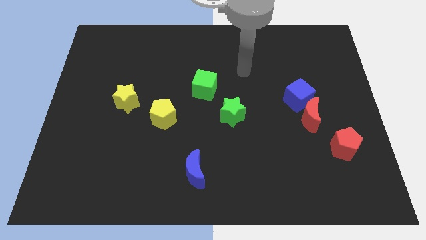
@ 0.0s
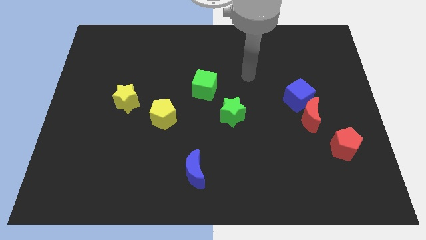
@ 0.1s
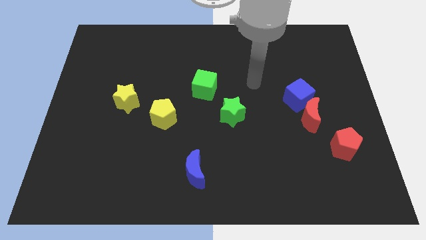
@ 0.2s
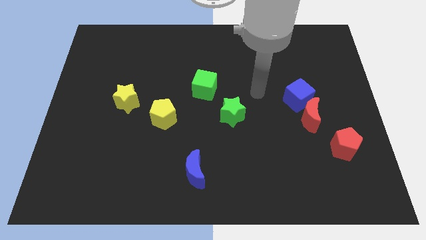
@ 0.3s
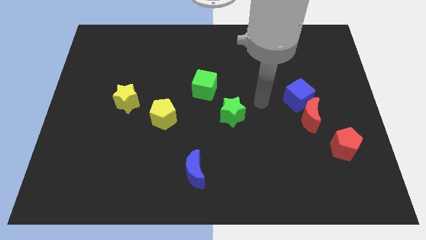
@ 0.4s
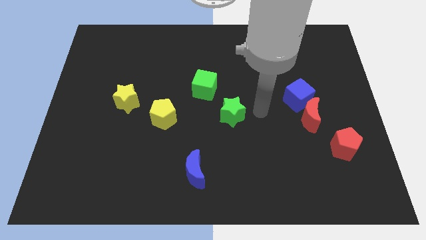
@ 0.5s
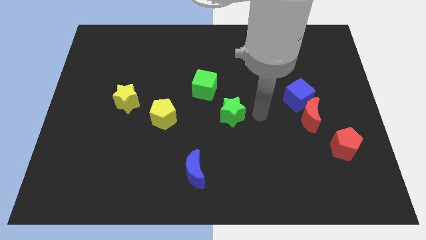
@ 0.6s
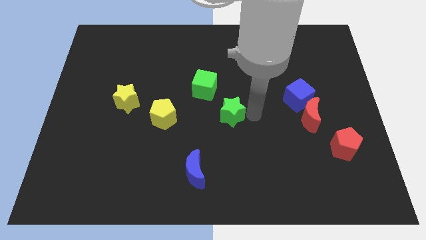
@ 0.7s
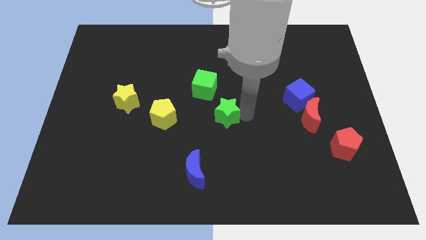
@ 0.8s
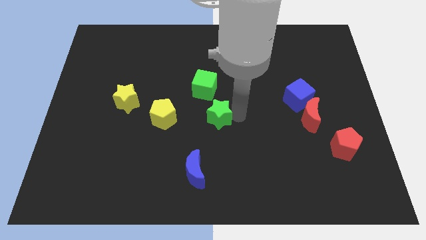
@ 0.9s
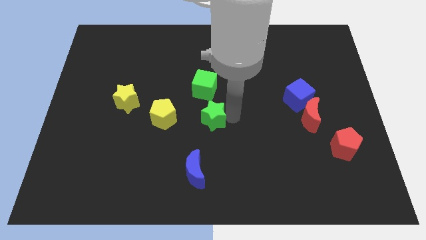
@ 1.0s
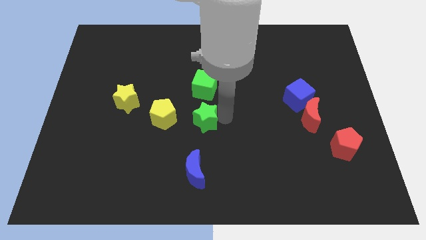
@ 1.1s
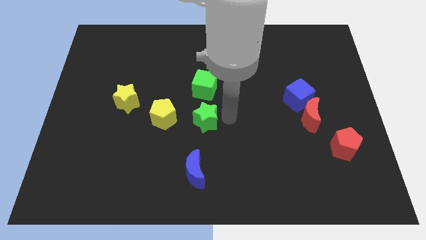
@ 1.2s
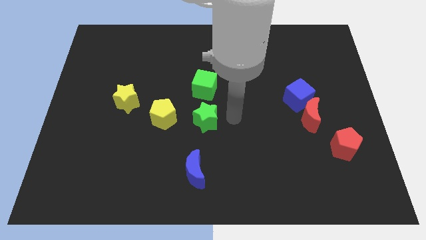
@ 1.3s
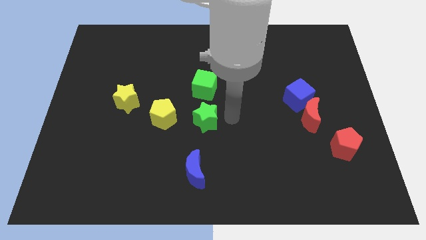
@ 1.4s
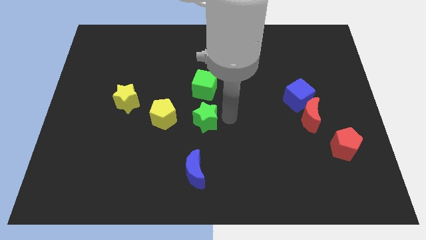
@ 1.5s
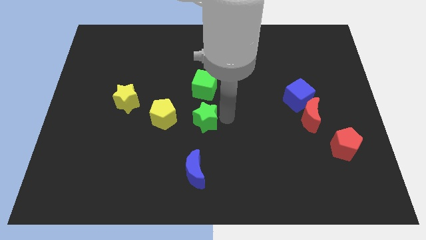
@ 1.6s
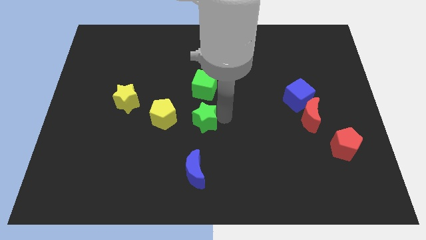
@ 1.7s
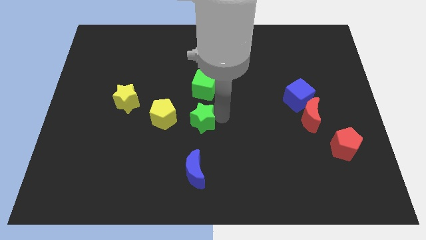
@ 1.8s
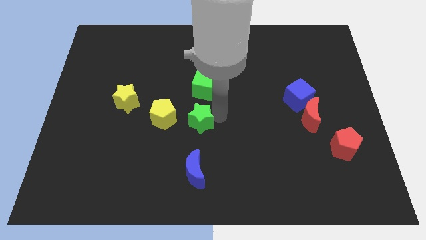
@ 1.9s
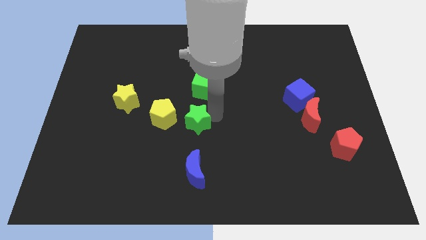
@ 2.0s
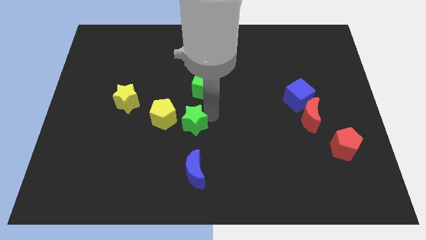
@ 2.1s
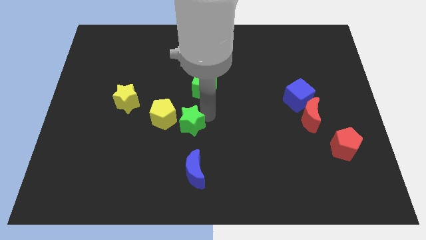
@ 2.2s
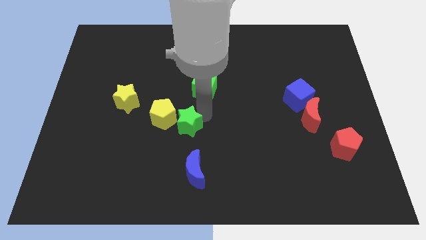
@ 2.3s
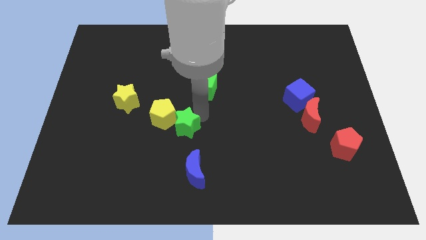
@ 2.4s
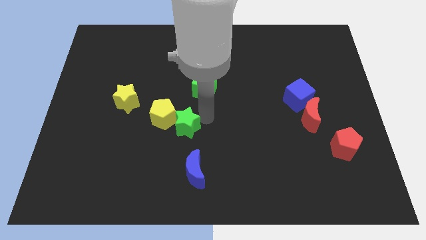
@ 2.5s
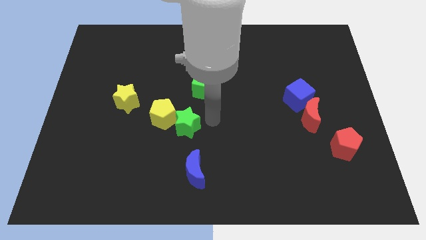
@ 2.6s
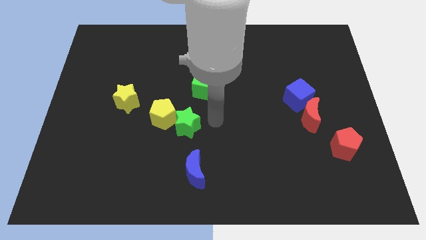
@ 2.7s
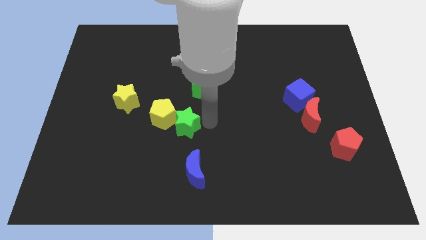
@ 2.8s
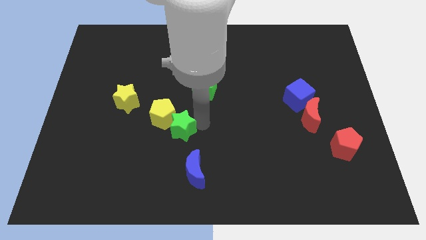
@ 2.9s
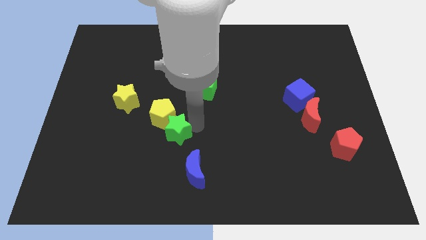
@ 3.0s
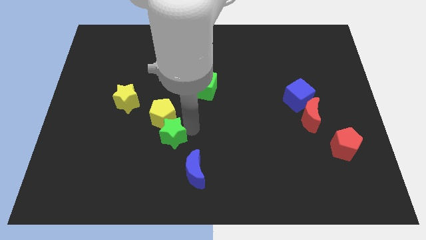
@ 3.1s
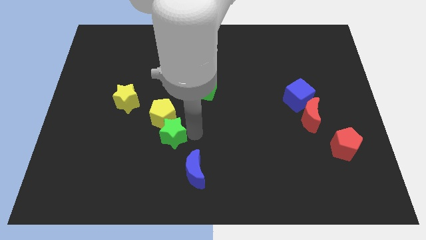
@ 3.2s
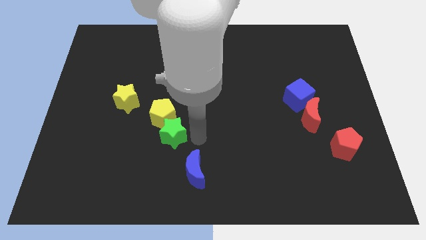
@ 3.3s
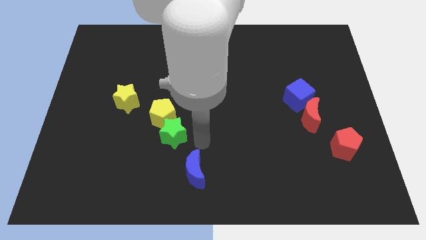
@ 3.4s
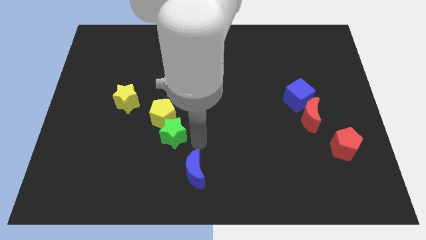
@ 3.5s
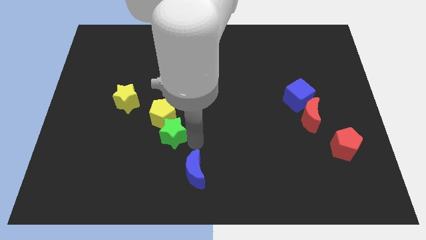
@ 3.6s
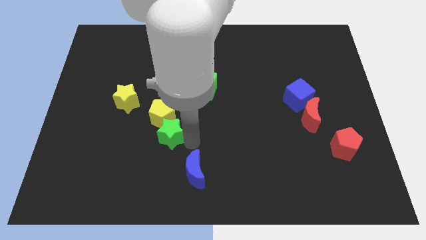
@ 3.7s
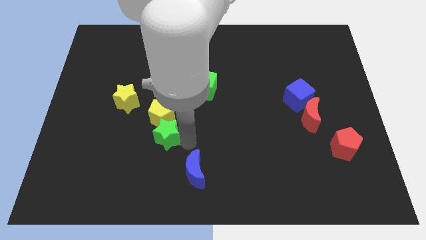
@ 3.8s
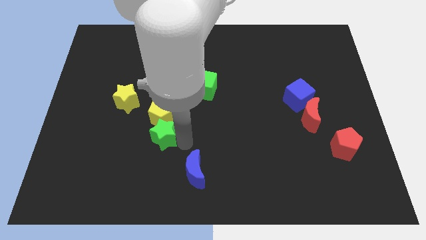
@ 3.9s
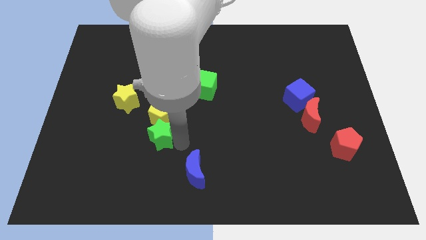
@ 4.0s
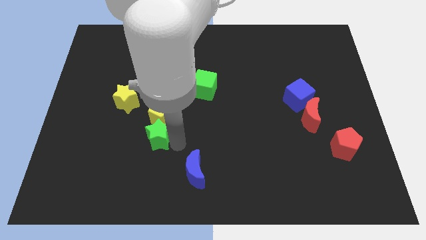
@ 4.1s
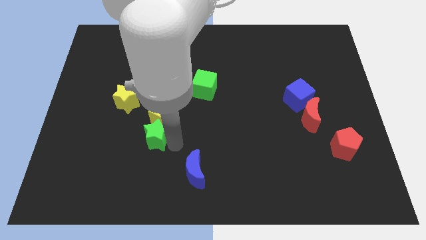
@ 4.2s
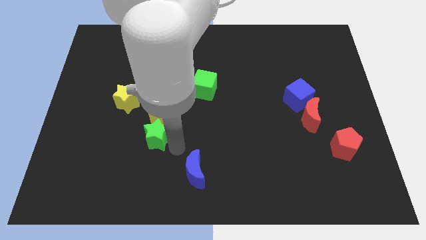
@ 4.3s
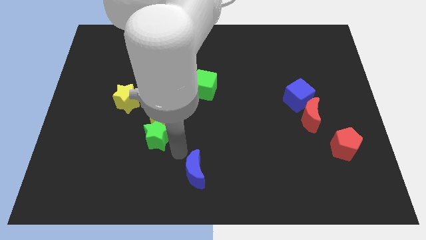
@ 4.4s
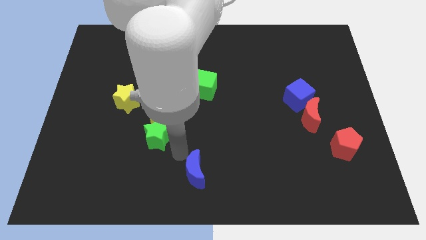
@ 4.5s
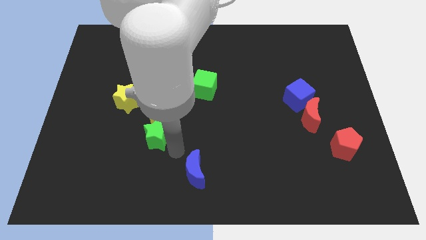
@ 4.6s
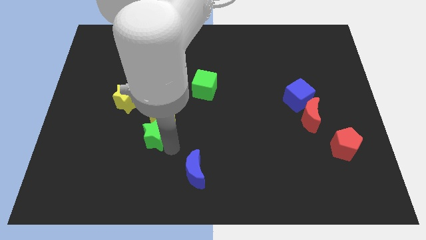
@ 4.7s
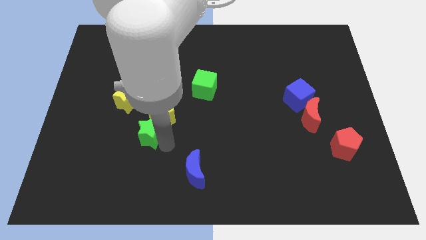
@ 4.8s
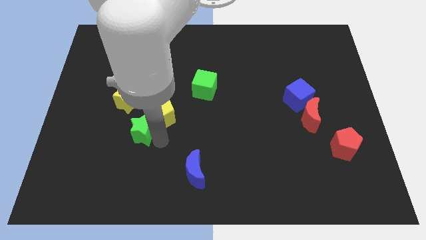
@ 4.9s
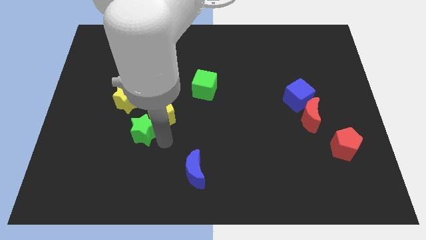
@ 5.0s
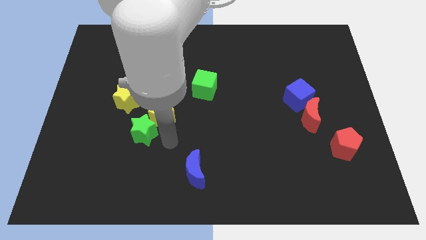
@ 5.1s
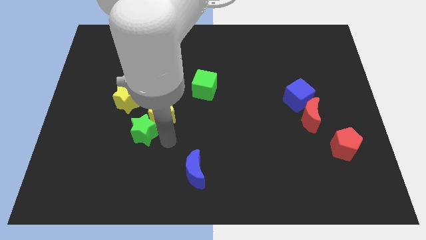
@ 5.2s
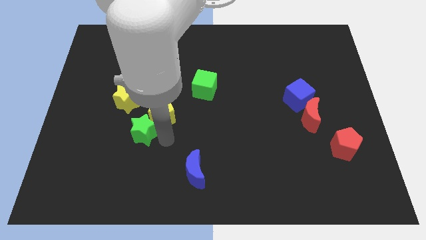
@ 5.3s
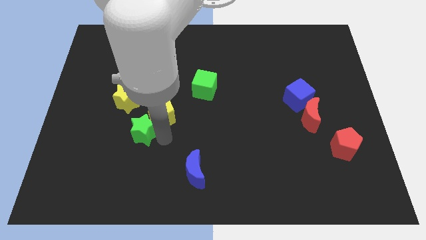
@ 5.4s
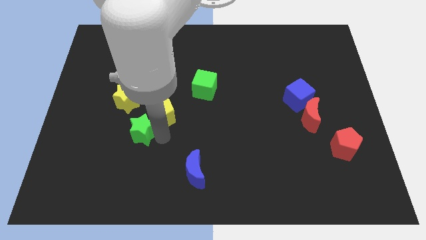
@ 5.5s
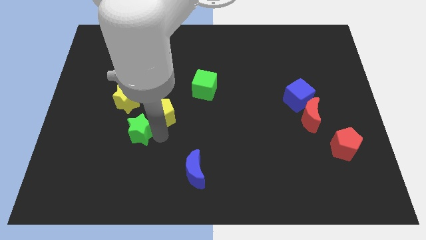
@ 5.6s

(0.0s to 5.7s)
slide the green star left

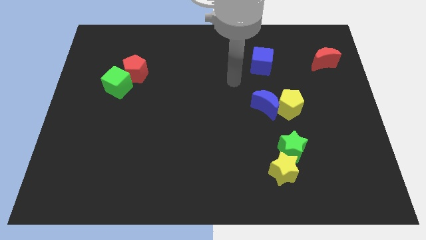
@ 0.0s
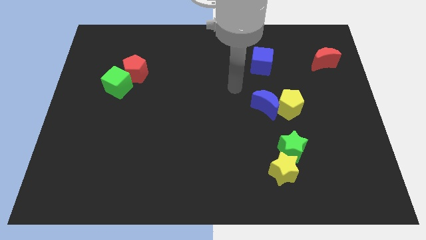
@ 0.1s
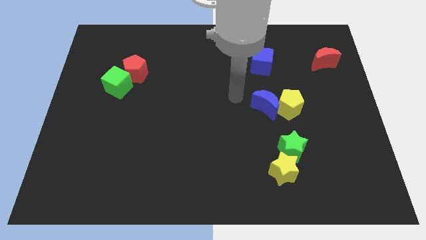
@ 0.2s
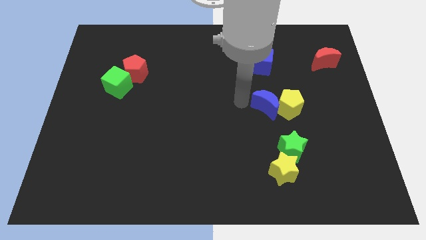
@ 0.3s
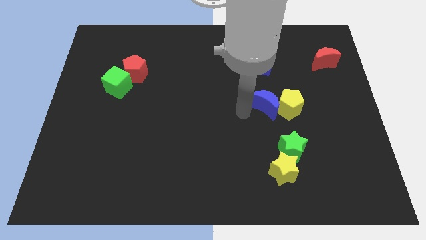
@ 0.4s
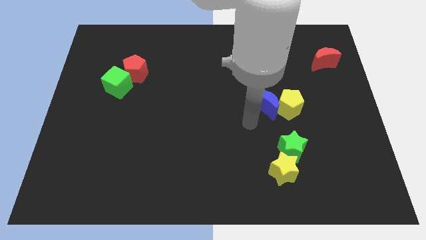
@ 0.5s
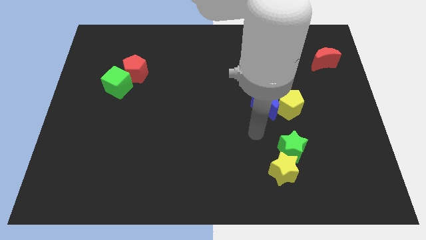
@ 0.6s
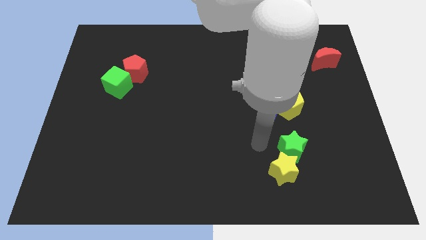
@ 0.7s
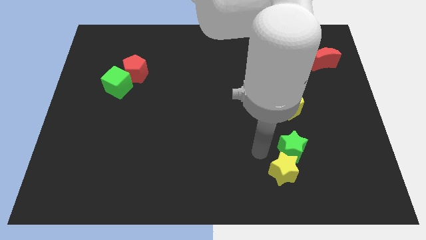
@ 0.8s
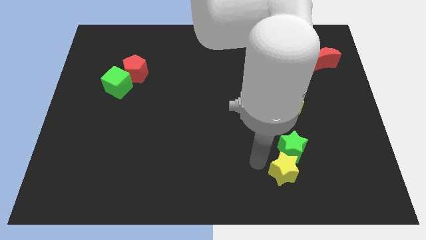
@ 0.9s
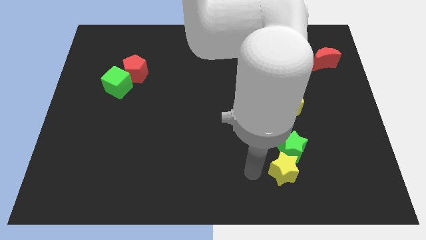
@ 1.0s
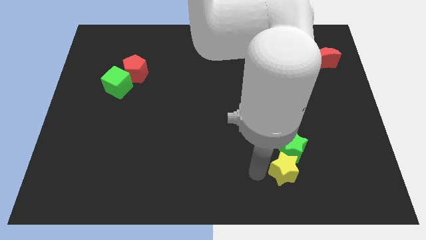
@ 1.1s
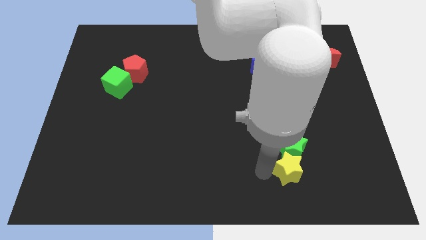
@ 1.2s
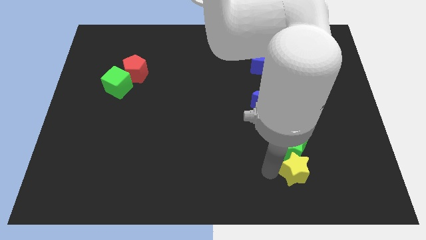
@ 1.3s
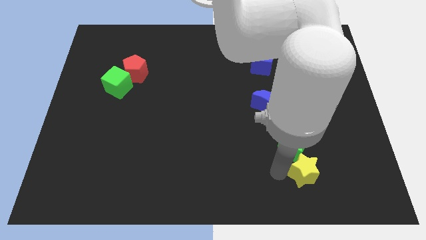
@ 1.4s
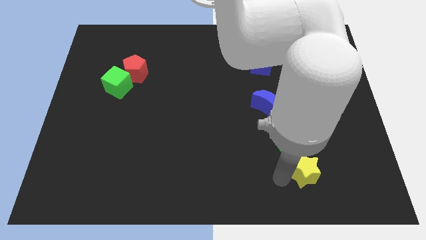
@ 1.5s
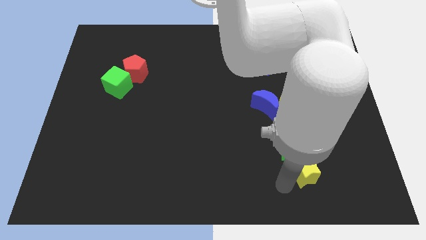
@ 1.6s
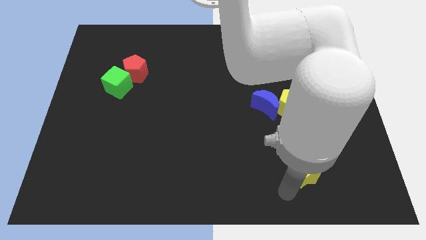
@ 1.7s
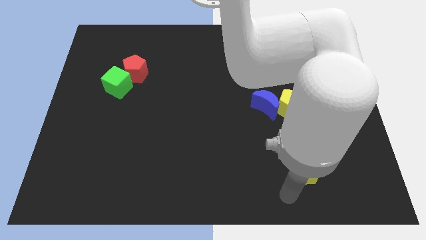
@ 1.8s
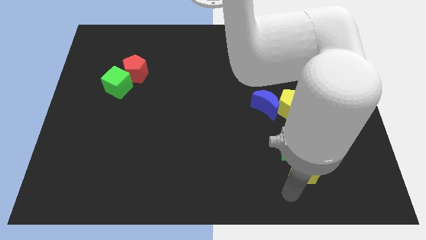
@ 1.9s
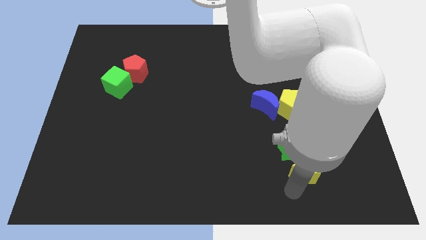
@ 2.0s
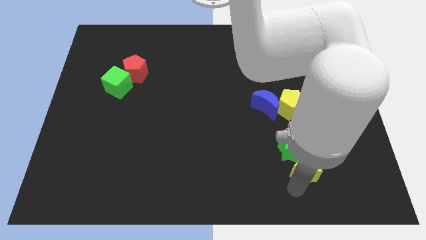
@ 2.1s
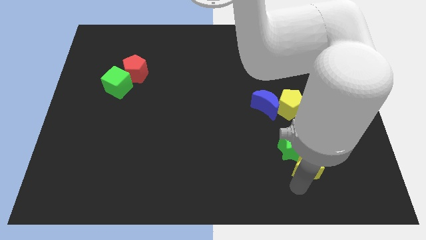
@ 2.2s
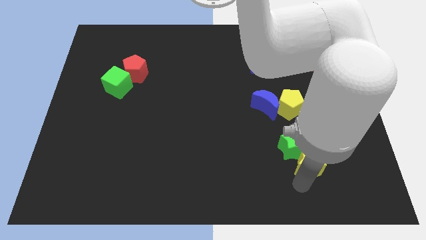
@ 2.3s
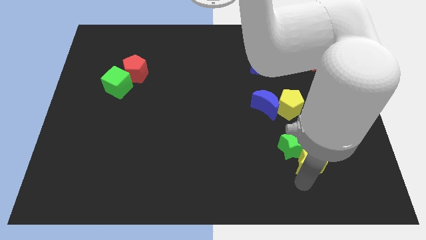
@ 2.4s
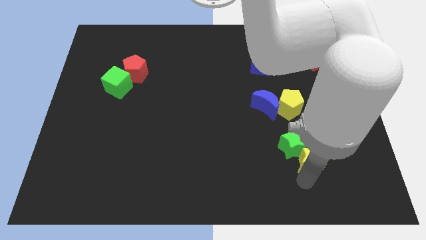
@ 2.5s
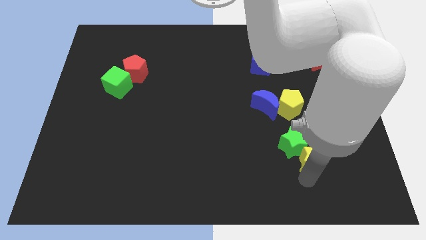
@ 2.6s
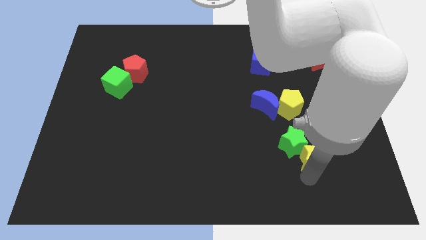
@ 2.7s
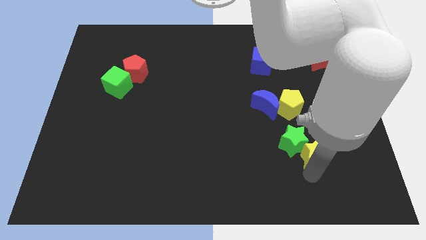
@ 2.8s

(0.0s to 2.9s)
move the yellow star up and then right somewhat

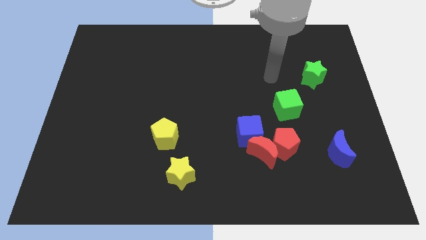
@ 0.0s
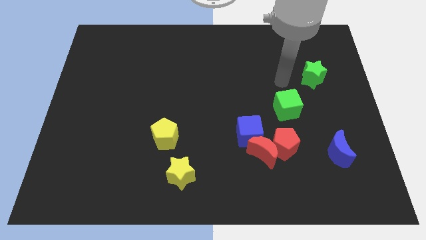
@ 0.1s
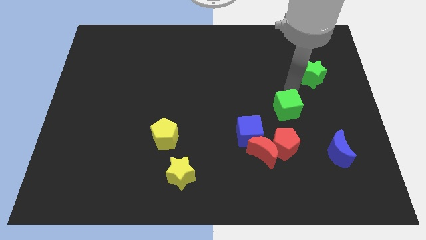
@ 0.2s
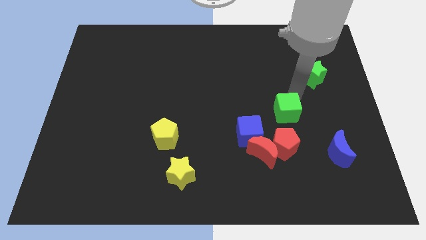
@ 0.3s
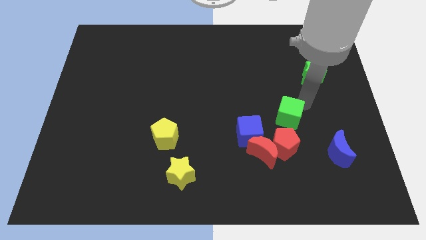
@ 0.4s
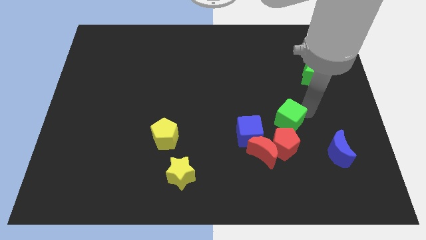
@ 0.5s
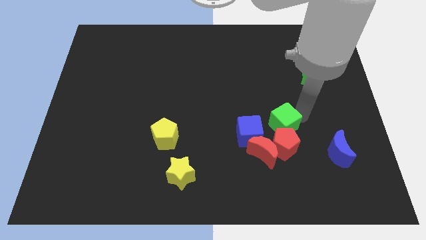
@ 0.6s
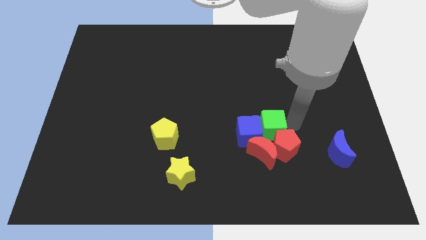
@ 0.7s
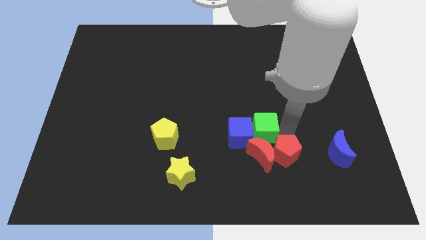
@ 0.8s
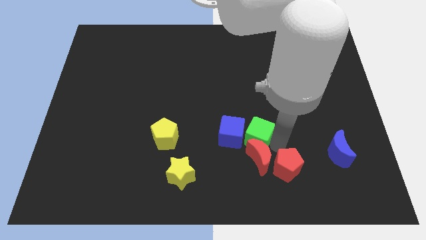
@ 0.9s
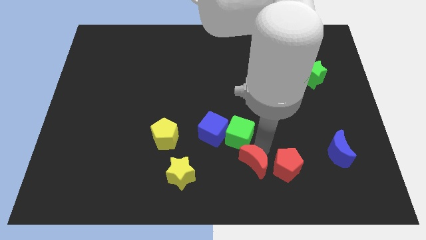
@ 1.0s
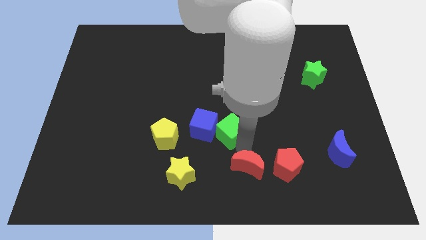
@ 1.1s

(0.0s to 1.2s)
slide the blue cube a little bit diagonally upwards and to the left
